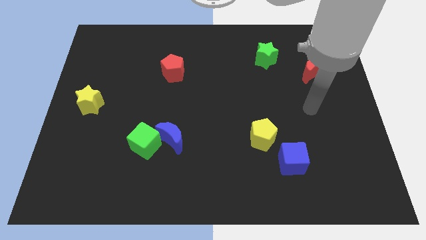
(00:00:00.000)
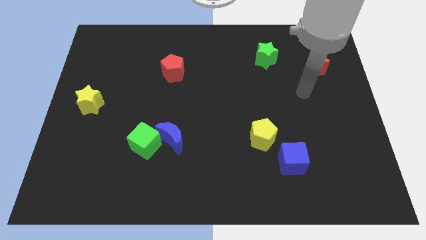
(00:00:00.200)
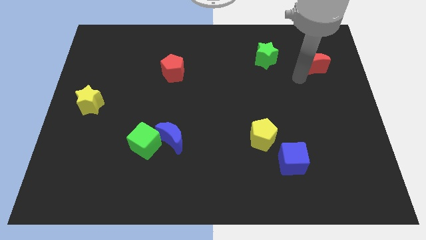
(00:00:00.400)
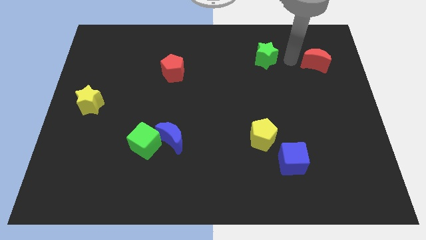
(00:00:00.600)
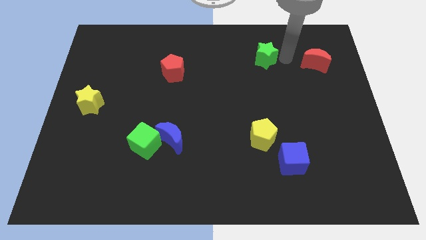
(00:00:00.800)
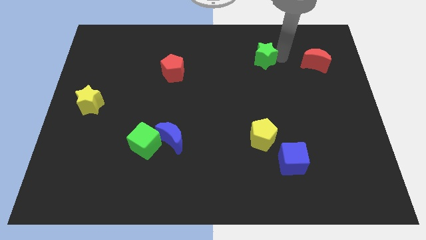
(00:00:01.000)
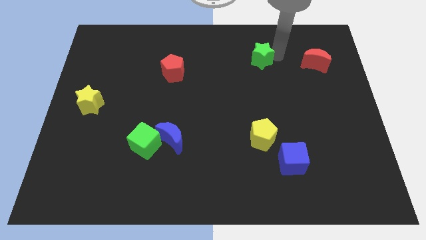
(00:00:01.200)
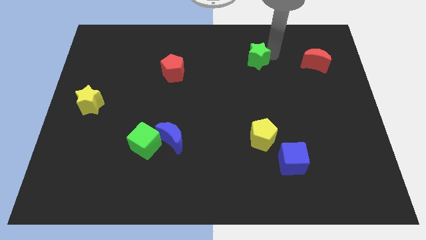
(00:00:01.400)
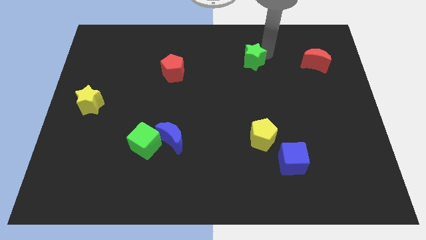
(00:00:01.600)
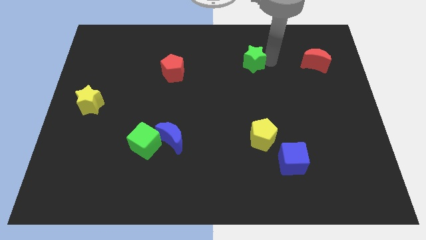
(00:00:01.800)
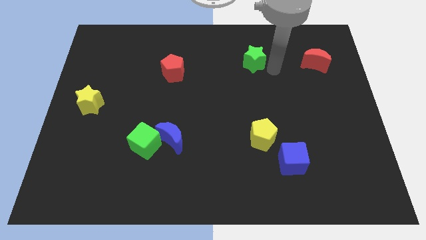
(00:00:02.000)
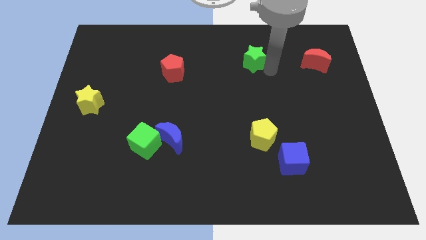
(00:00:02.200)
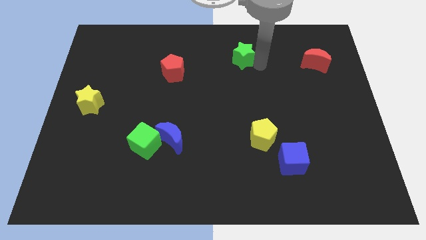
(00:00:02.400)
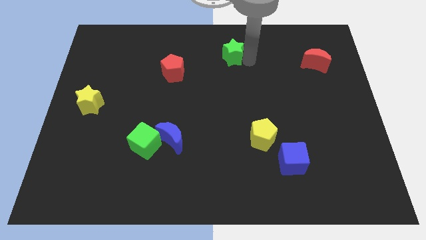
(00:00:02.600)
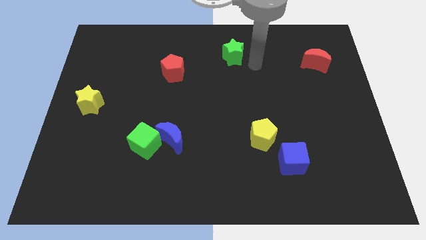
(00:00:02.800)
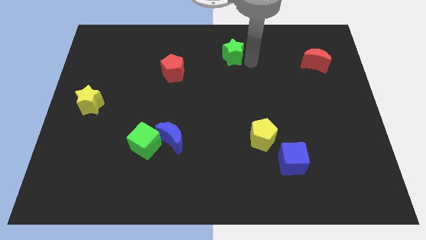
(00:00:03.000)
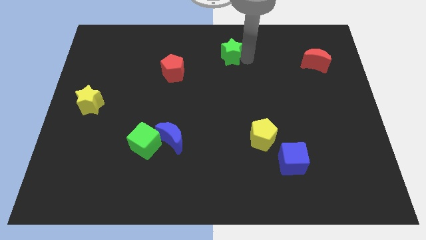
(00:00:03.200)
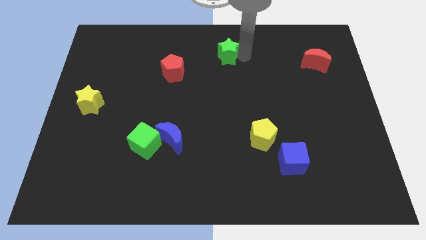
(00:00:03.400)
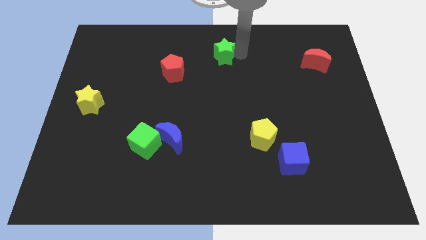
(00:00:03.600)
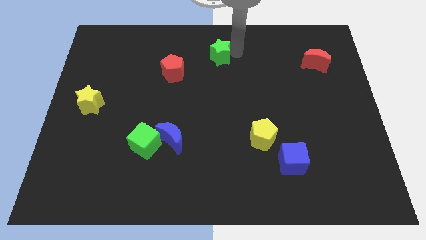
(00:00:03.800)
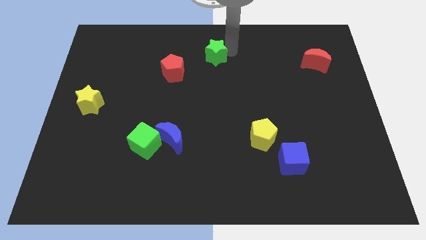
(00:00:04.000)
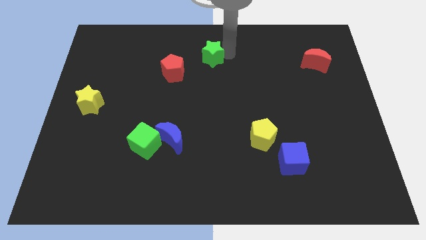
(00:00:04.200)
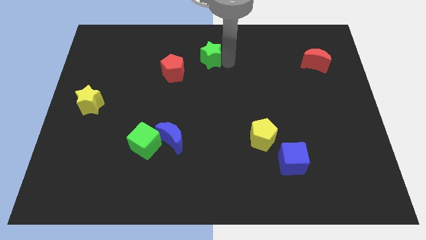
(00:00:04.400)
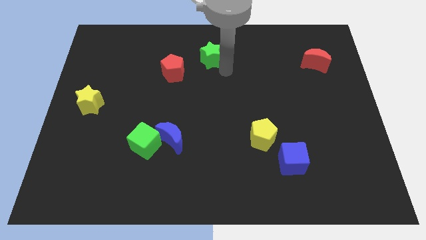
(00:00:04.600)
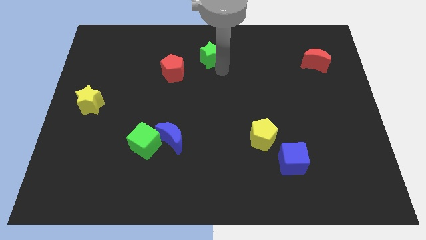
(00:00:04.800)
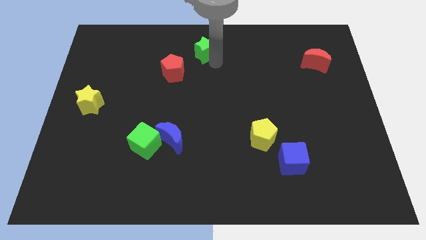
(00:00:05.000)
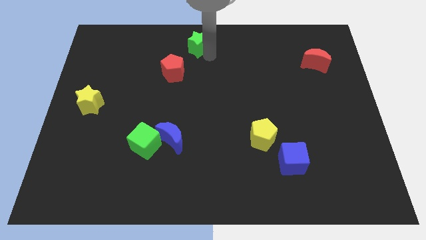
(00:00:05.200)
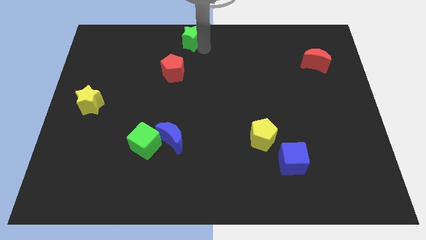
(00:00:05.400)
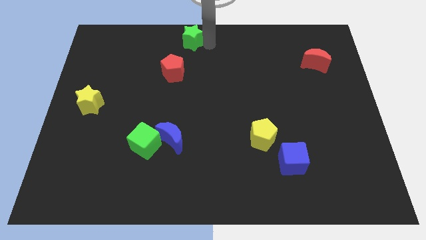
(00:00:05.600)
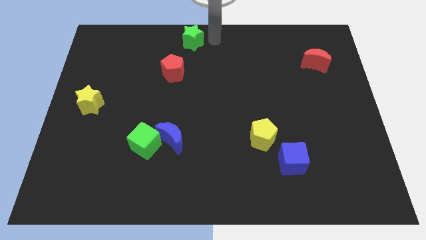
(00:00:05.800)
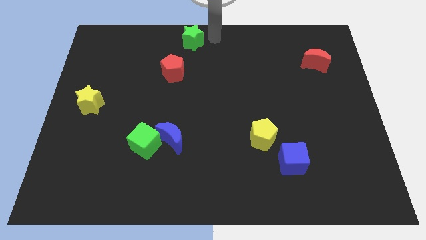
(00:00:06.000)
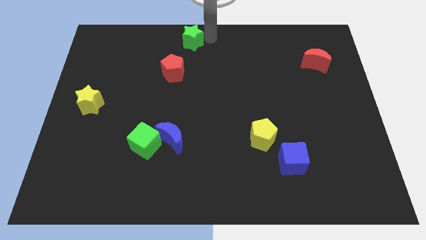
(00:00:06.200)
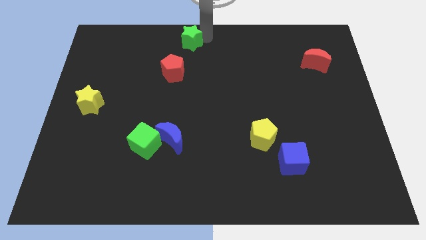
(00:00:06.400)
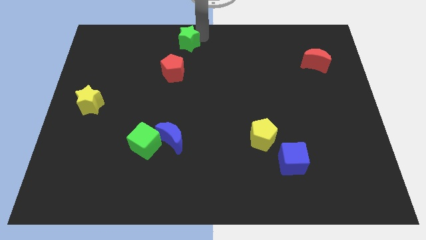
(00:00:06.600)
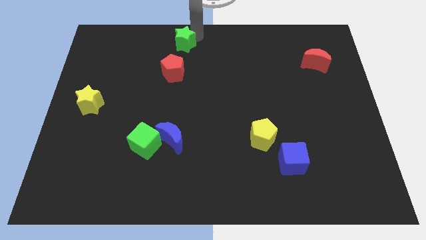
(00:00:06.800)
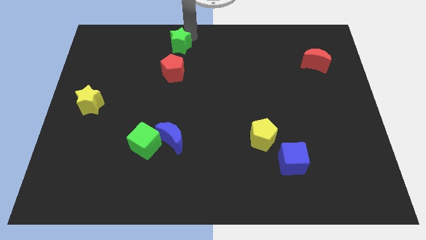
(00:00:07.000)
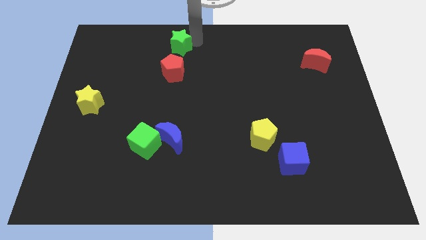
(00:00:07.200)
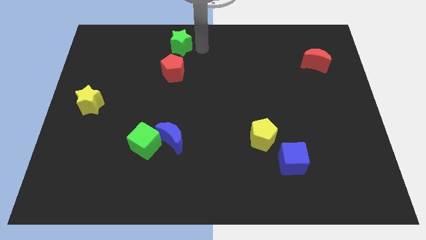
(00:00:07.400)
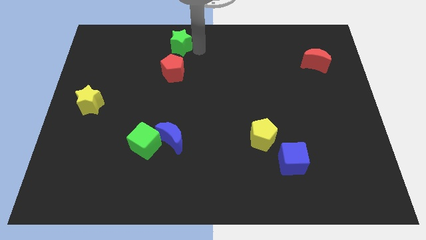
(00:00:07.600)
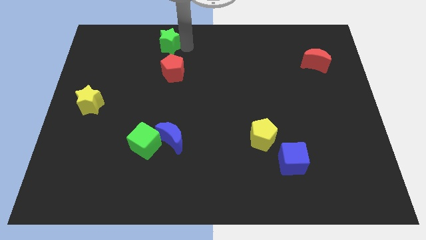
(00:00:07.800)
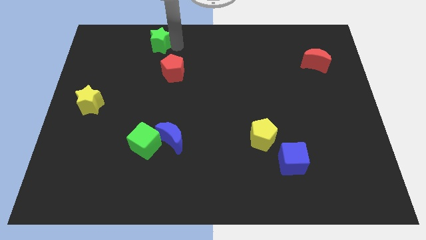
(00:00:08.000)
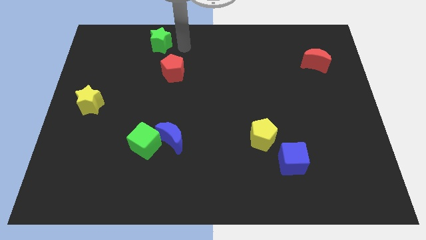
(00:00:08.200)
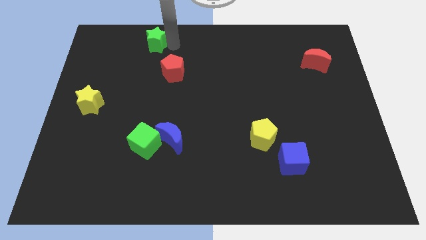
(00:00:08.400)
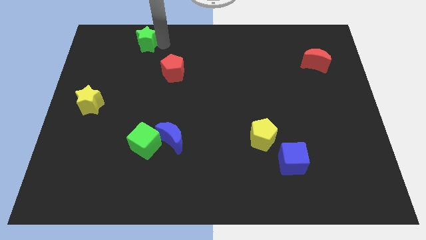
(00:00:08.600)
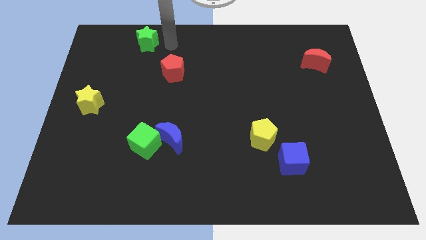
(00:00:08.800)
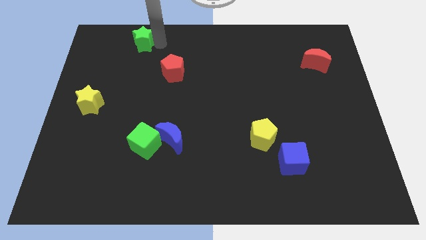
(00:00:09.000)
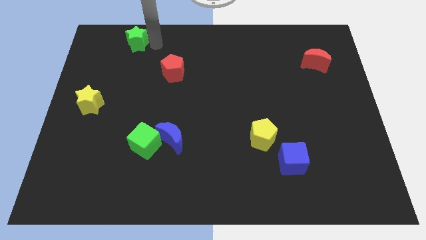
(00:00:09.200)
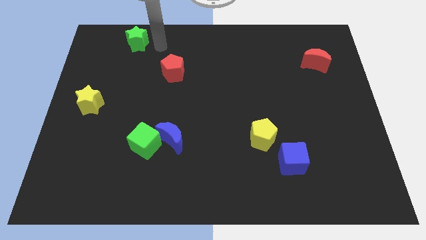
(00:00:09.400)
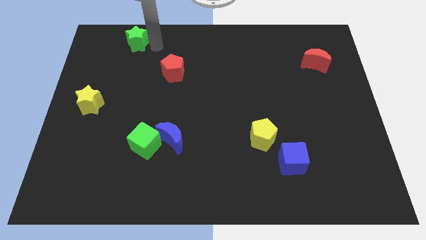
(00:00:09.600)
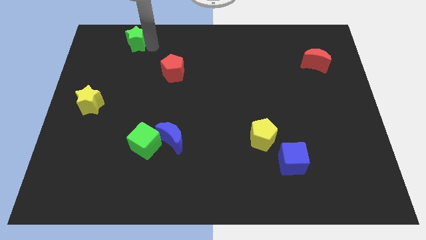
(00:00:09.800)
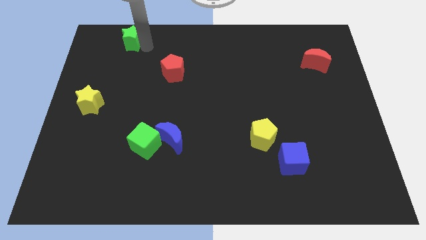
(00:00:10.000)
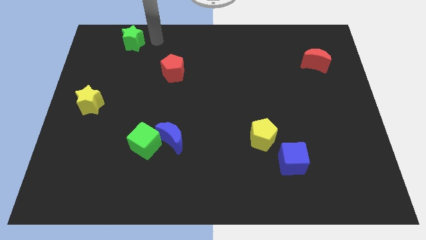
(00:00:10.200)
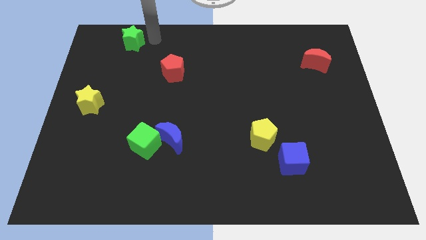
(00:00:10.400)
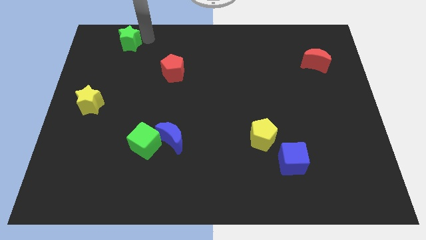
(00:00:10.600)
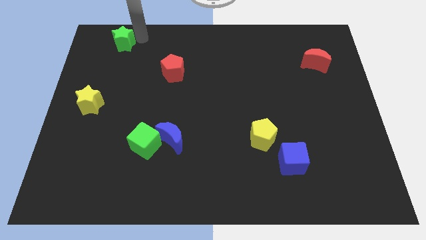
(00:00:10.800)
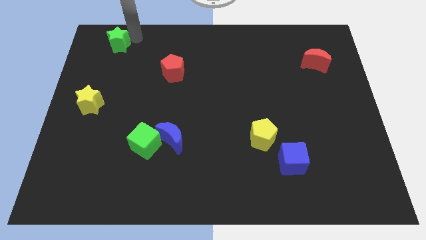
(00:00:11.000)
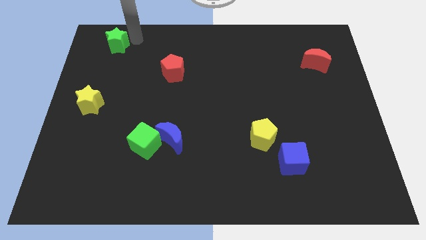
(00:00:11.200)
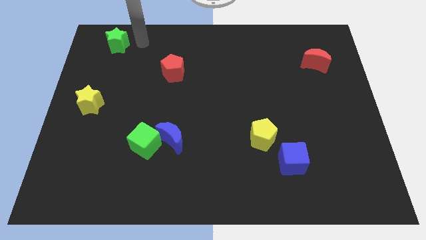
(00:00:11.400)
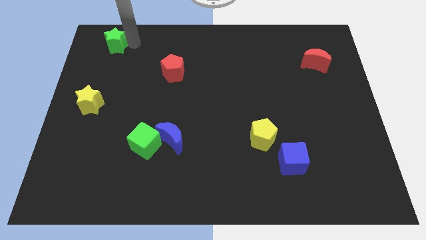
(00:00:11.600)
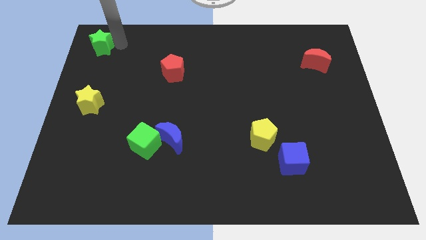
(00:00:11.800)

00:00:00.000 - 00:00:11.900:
put the green star to the top left corner

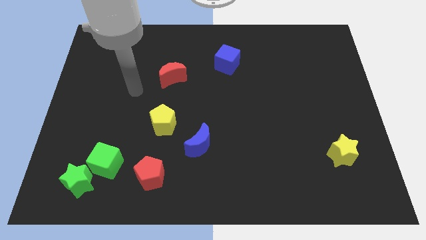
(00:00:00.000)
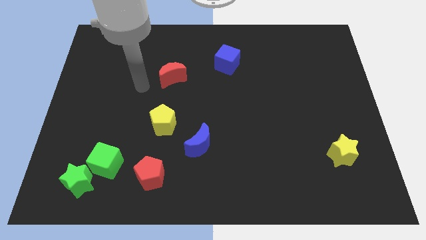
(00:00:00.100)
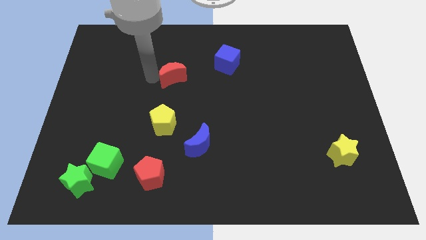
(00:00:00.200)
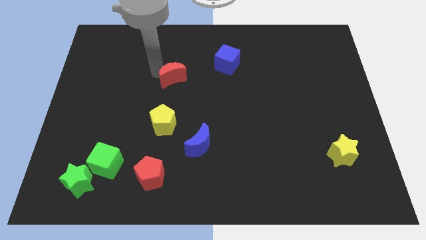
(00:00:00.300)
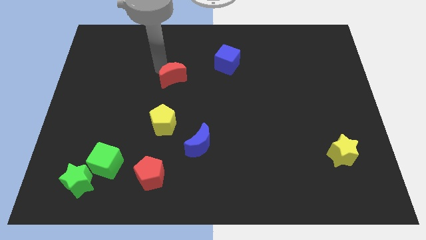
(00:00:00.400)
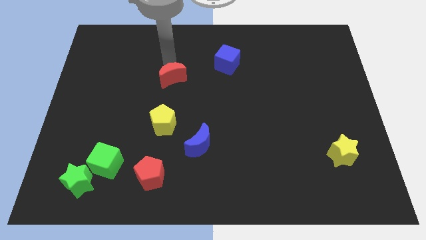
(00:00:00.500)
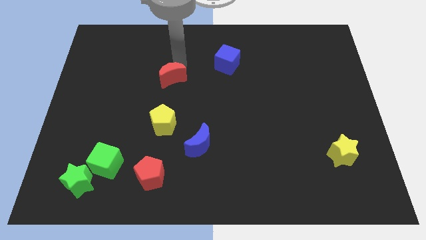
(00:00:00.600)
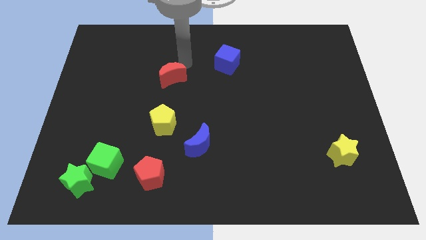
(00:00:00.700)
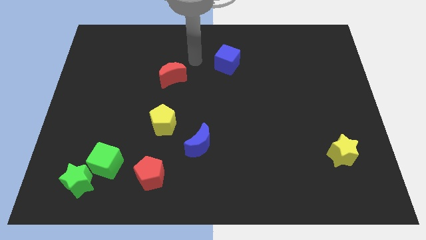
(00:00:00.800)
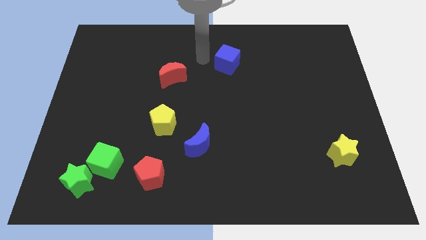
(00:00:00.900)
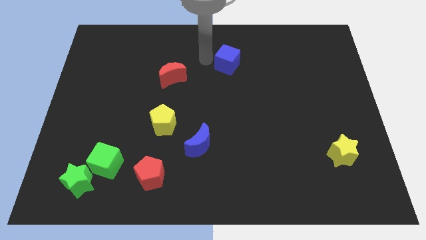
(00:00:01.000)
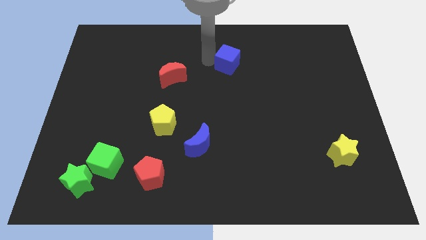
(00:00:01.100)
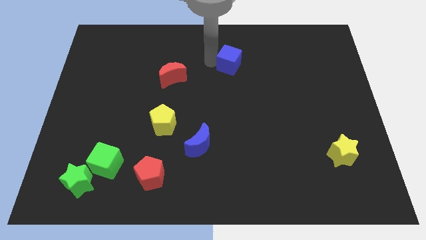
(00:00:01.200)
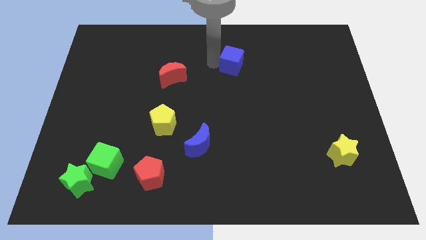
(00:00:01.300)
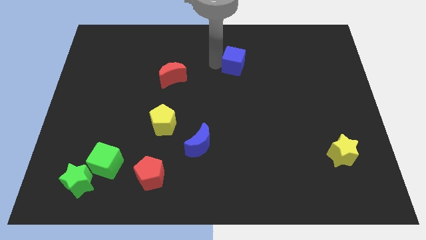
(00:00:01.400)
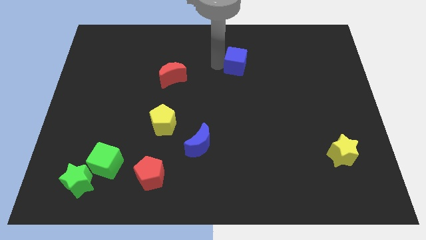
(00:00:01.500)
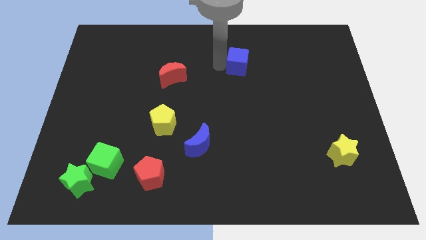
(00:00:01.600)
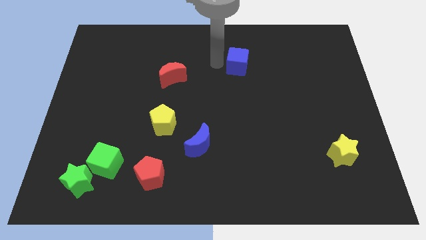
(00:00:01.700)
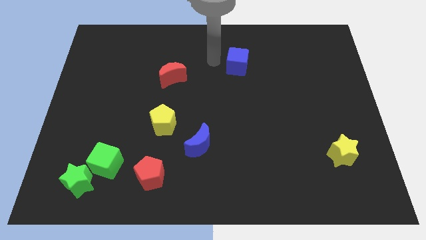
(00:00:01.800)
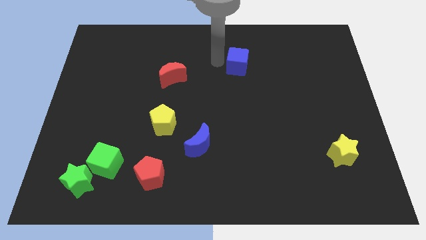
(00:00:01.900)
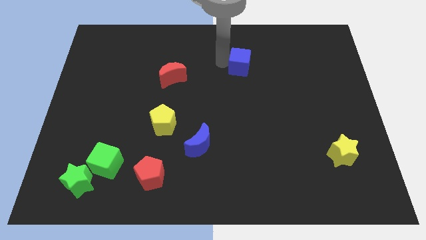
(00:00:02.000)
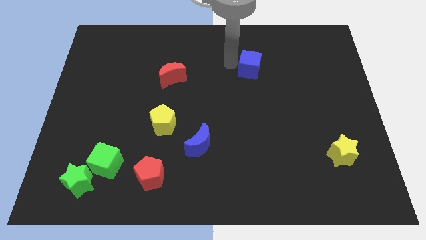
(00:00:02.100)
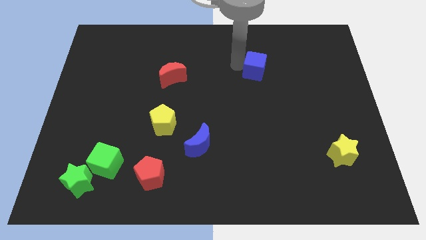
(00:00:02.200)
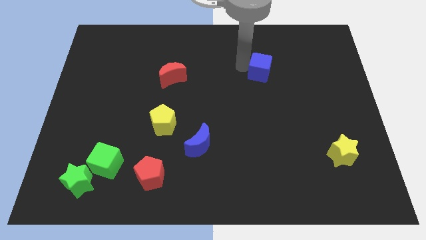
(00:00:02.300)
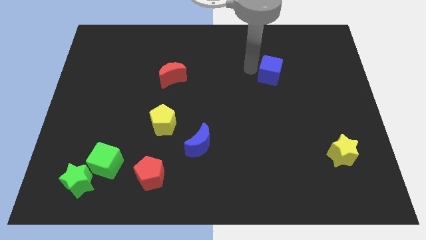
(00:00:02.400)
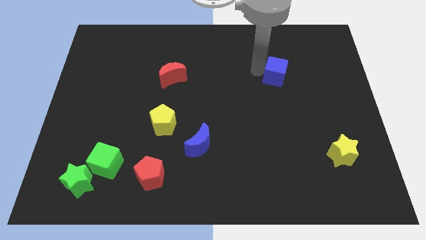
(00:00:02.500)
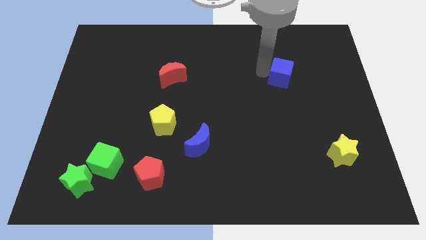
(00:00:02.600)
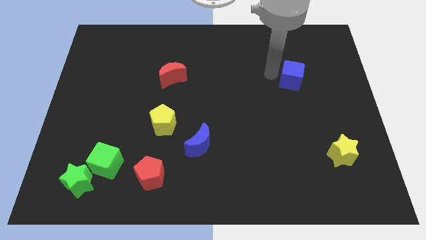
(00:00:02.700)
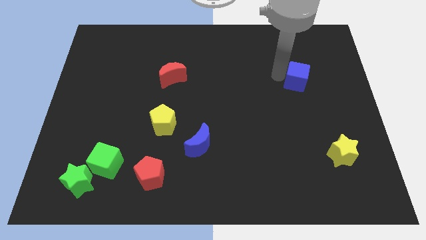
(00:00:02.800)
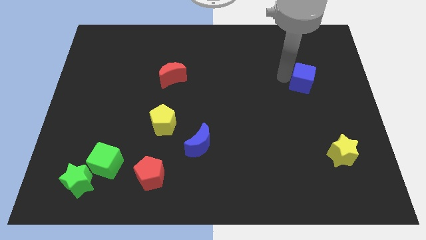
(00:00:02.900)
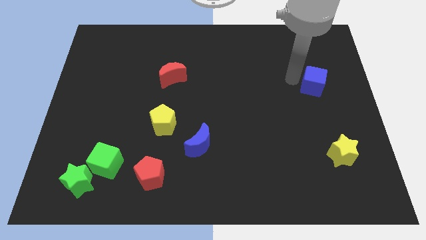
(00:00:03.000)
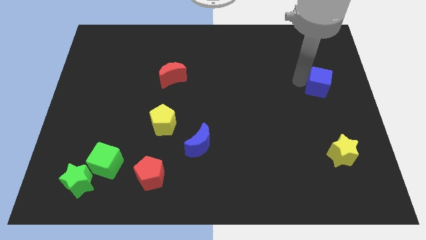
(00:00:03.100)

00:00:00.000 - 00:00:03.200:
push the blue cube to the center right
